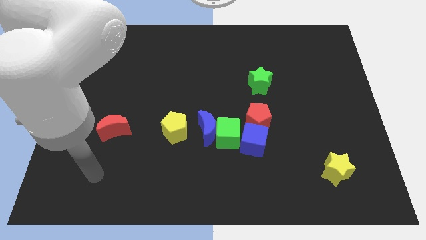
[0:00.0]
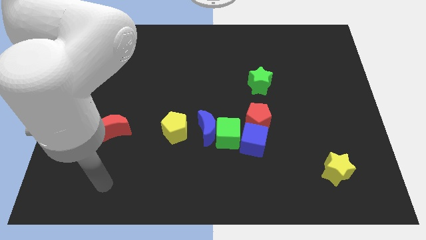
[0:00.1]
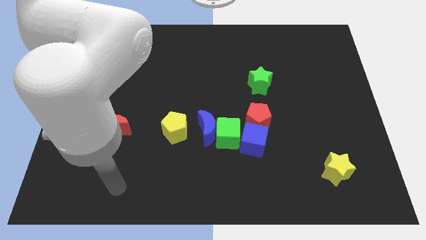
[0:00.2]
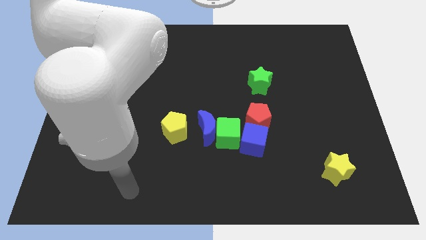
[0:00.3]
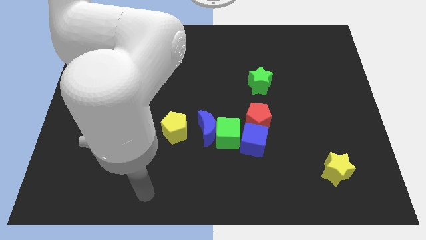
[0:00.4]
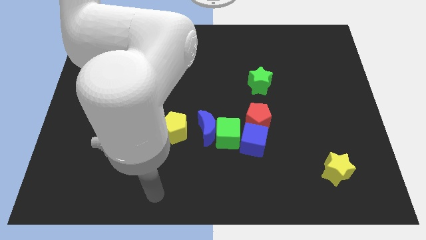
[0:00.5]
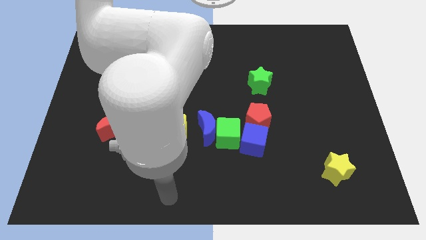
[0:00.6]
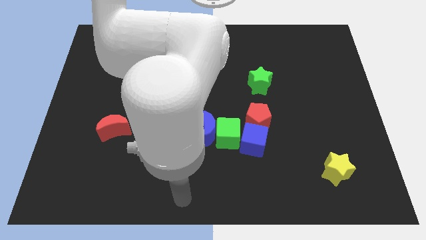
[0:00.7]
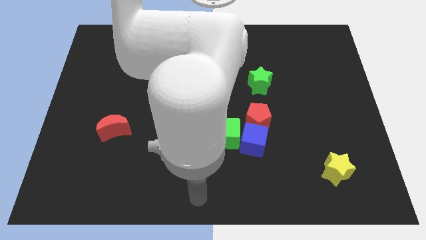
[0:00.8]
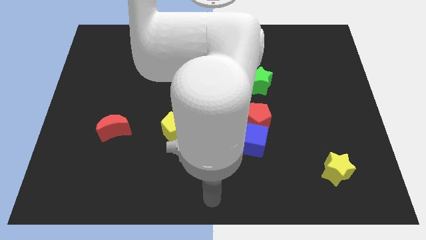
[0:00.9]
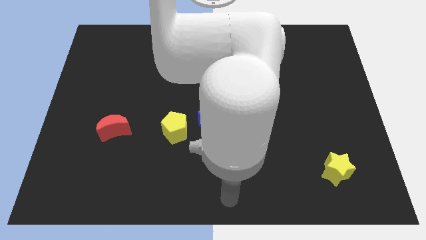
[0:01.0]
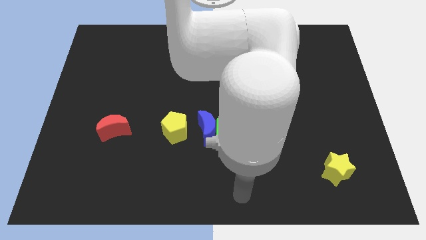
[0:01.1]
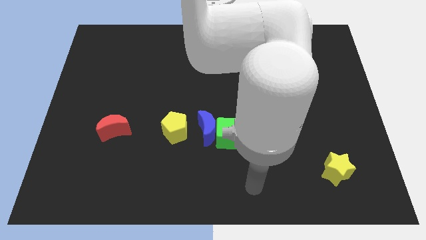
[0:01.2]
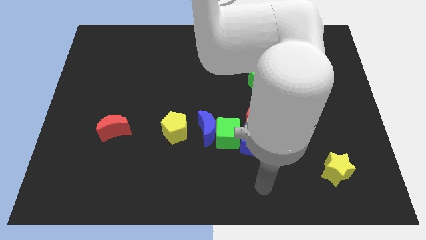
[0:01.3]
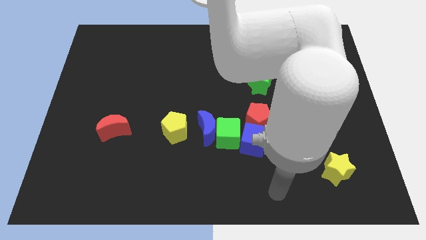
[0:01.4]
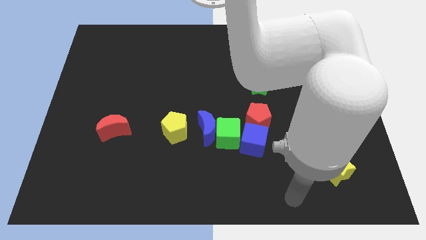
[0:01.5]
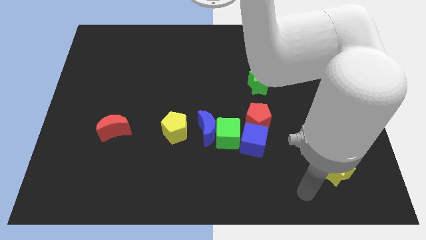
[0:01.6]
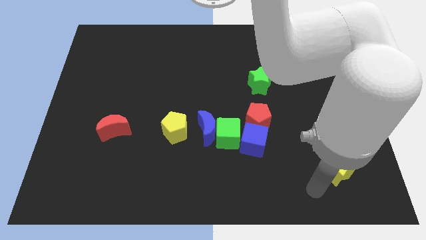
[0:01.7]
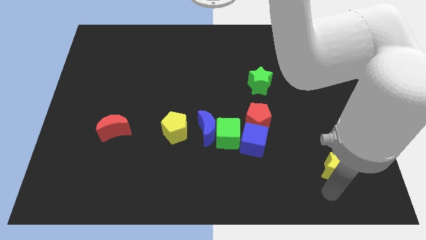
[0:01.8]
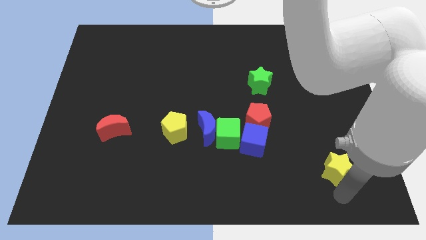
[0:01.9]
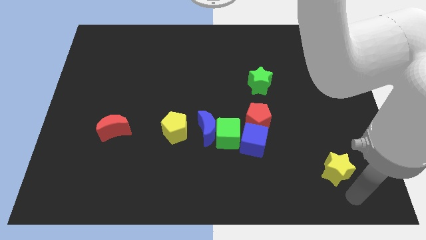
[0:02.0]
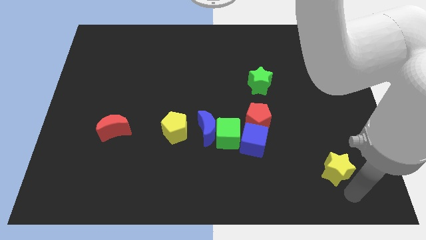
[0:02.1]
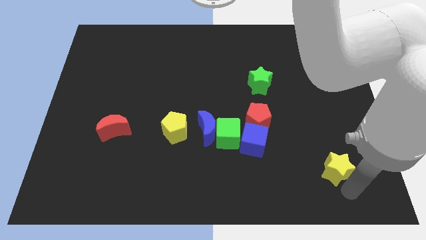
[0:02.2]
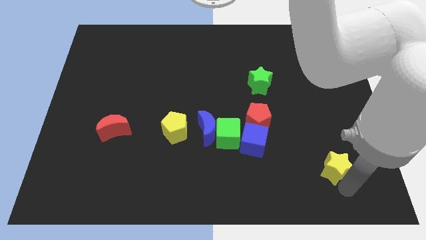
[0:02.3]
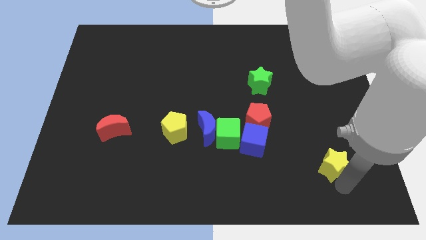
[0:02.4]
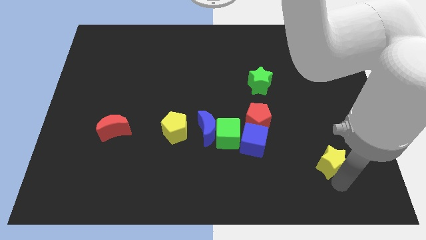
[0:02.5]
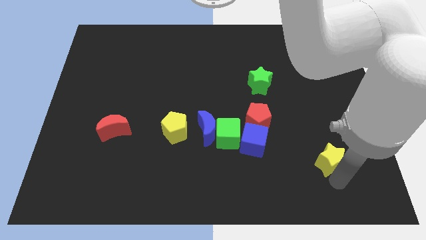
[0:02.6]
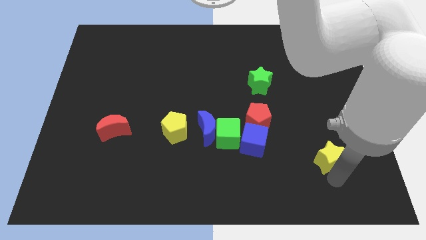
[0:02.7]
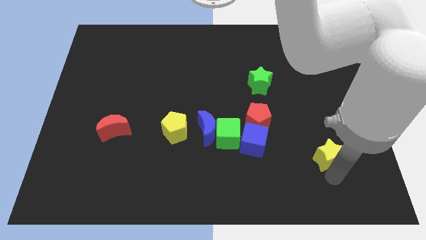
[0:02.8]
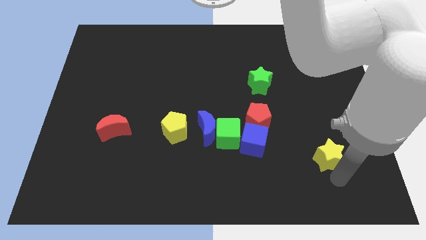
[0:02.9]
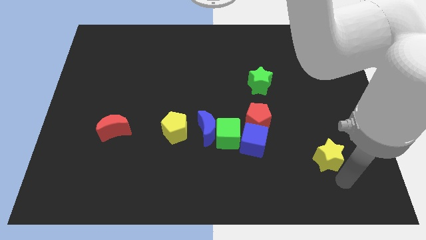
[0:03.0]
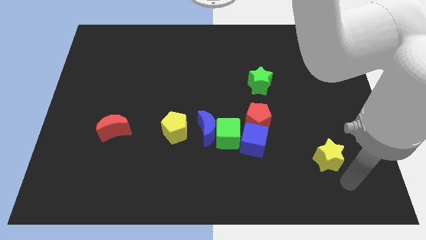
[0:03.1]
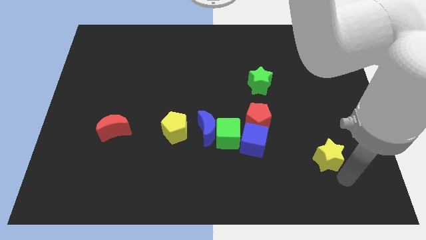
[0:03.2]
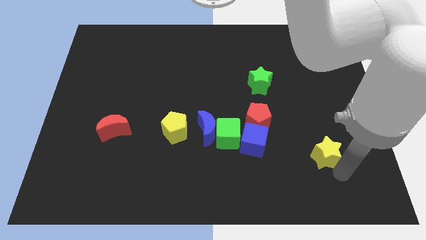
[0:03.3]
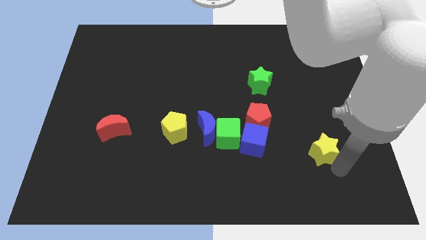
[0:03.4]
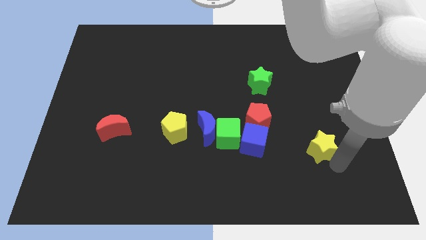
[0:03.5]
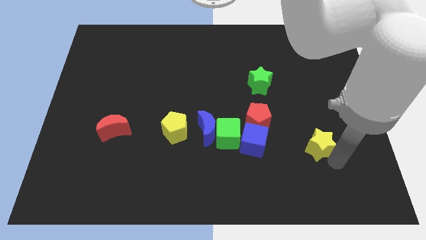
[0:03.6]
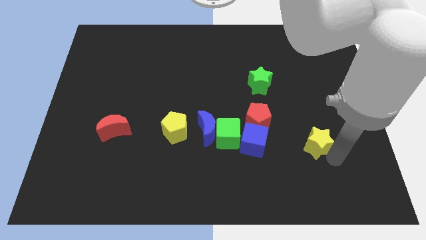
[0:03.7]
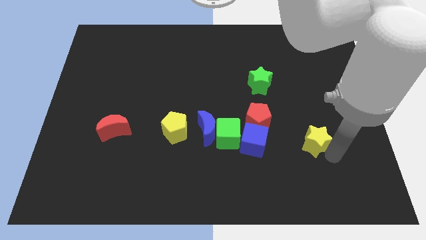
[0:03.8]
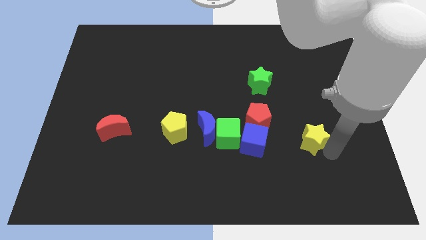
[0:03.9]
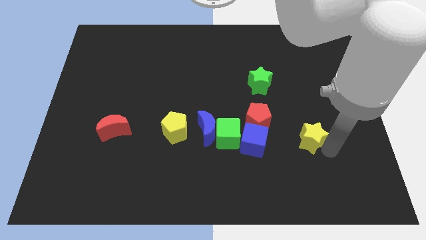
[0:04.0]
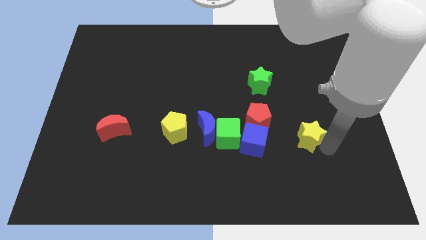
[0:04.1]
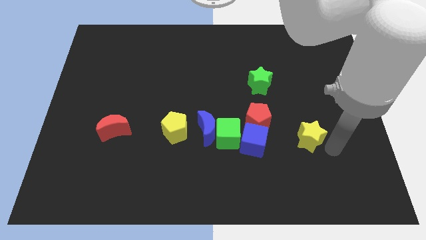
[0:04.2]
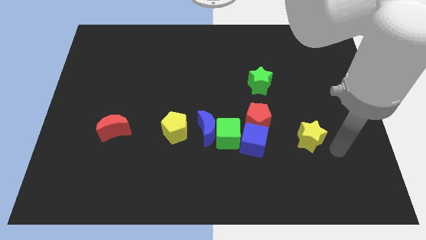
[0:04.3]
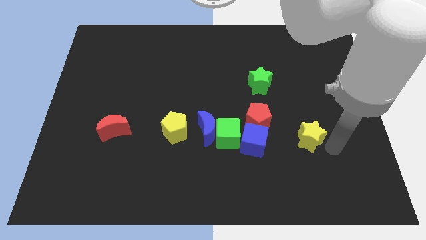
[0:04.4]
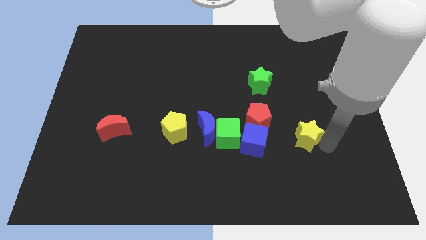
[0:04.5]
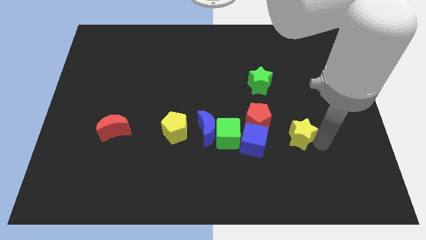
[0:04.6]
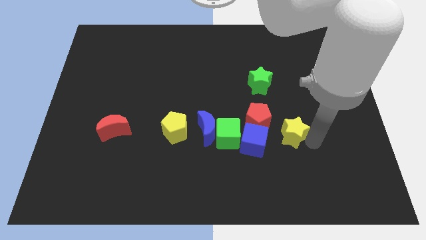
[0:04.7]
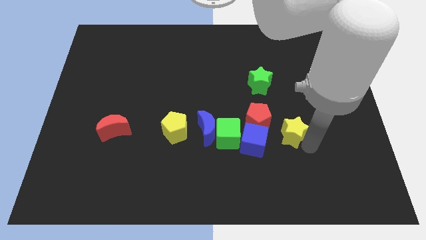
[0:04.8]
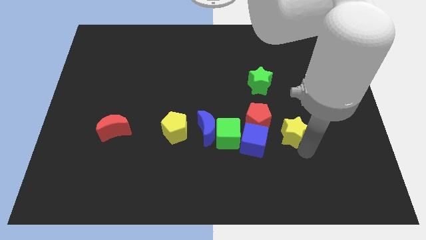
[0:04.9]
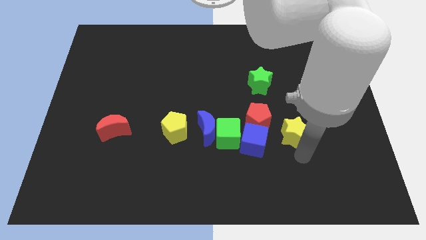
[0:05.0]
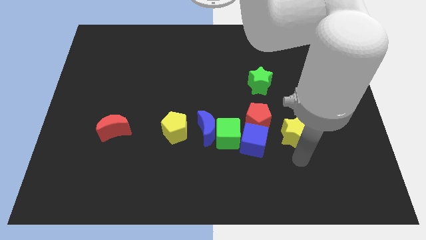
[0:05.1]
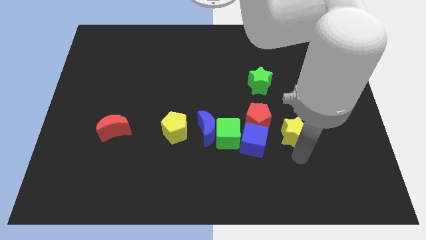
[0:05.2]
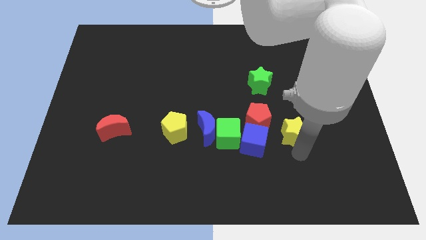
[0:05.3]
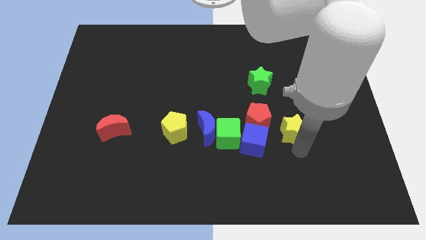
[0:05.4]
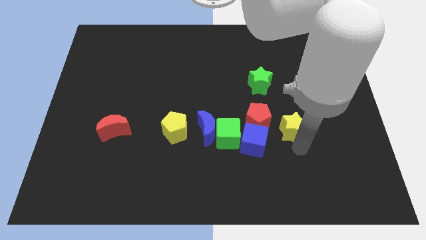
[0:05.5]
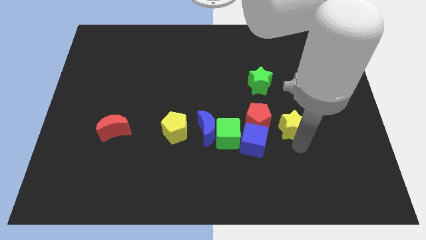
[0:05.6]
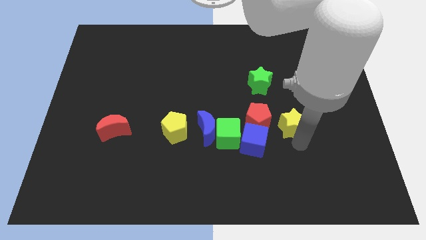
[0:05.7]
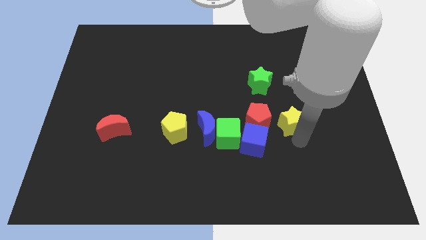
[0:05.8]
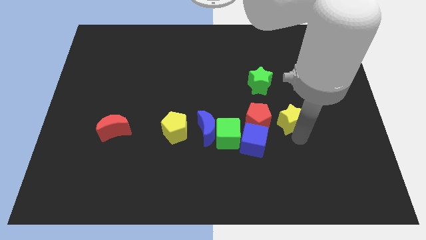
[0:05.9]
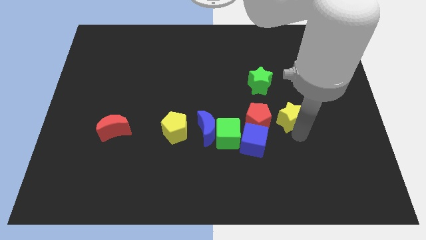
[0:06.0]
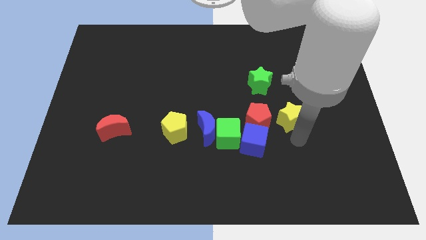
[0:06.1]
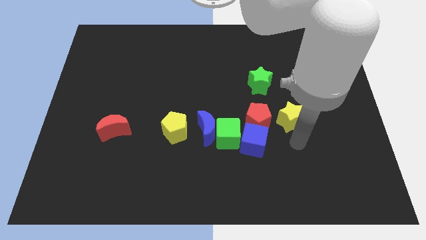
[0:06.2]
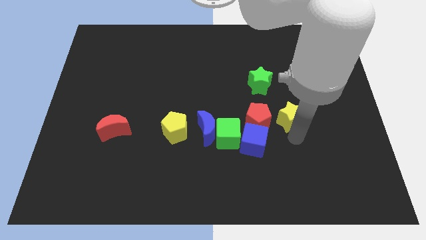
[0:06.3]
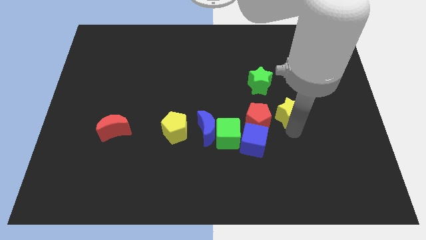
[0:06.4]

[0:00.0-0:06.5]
push the yellow star diagonally down and to the right of the green star
